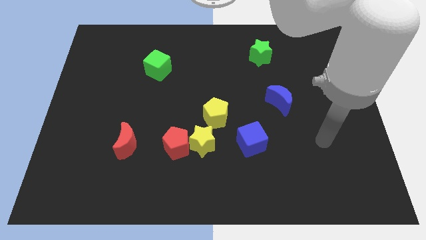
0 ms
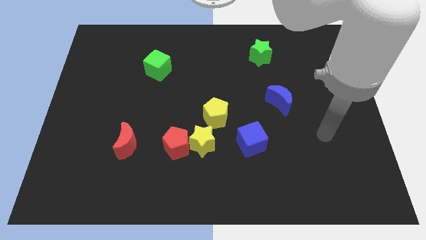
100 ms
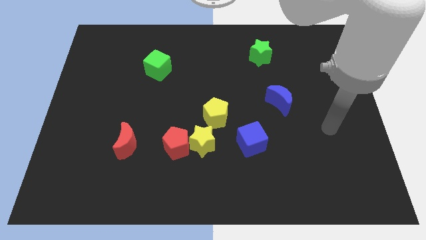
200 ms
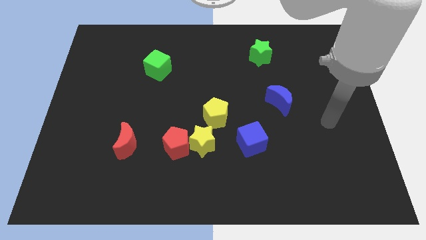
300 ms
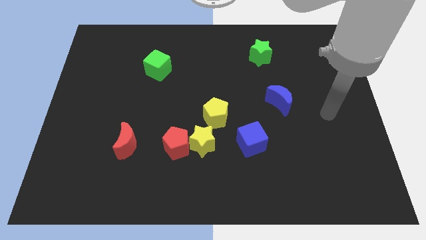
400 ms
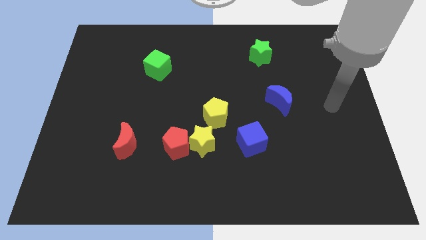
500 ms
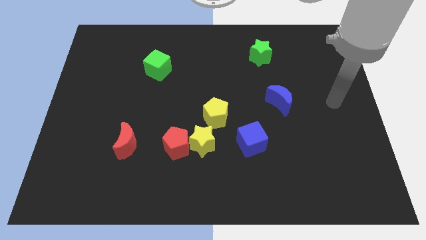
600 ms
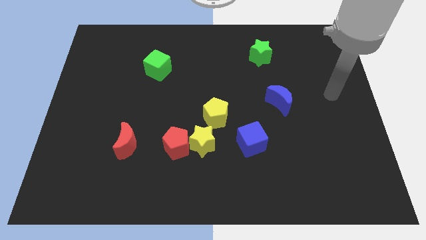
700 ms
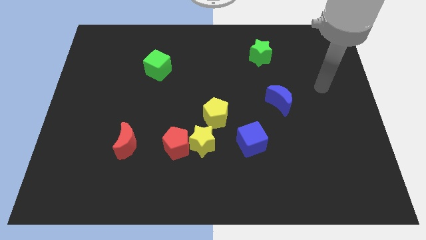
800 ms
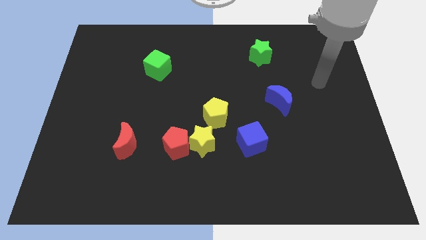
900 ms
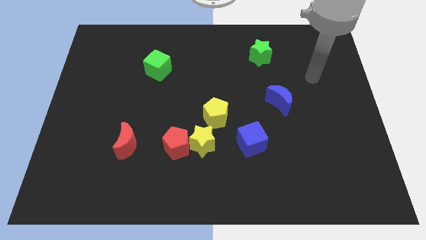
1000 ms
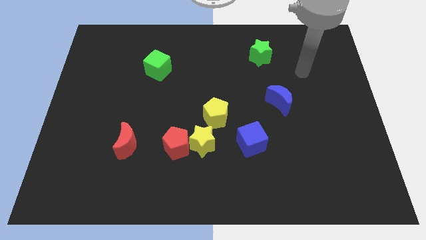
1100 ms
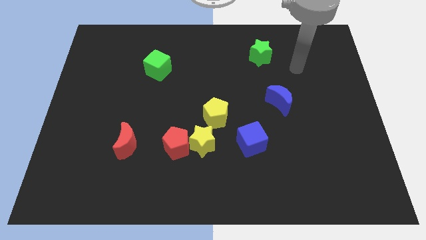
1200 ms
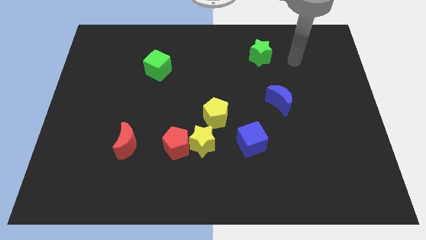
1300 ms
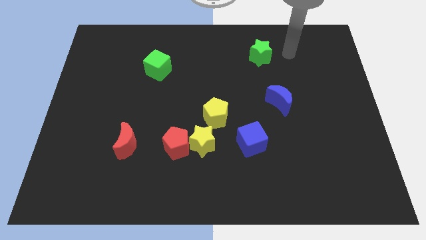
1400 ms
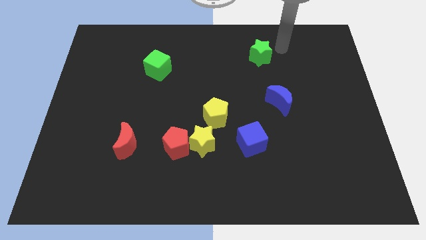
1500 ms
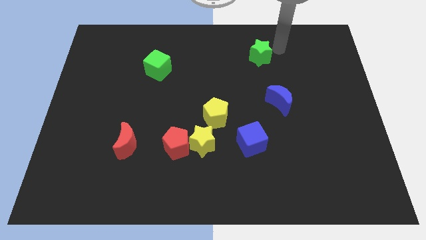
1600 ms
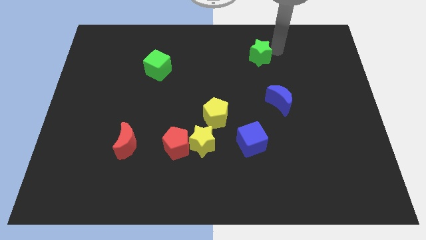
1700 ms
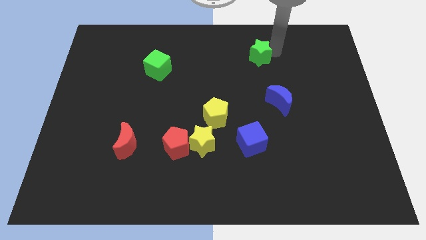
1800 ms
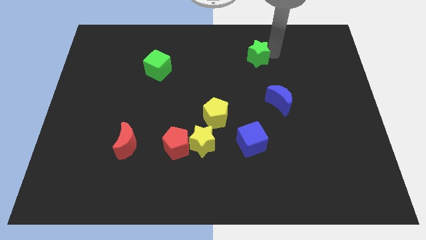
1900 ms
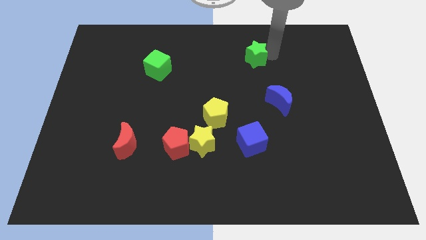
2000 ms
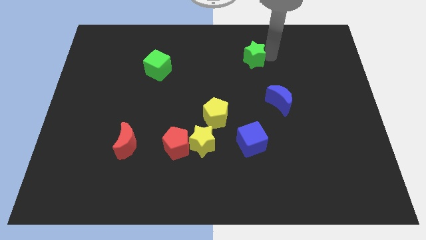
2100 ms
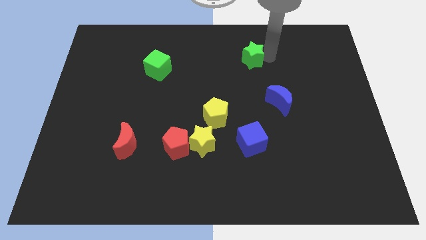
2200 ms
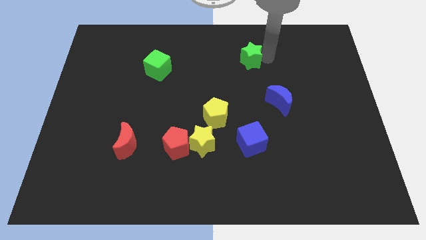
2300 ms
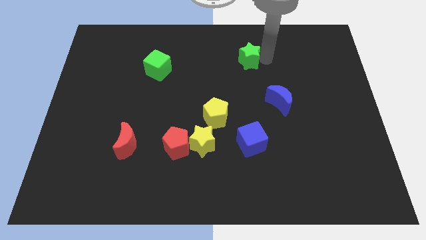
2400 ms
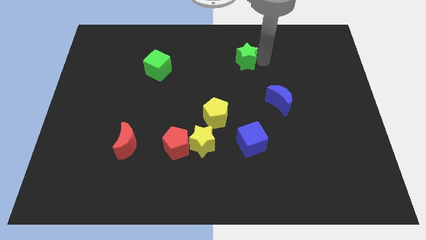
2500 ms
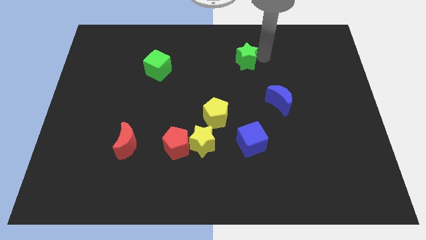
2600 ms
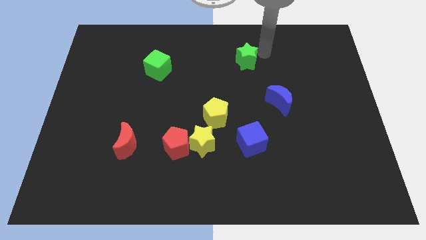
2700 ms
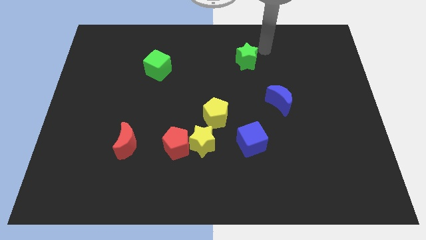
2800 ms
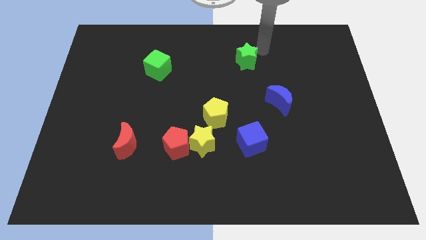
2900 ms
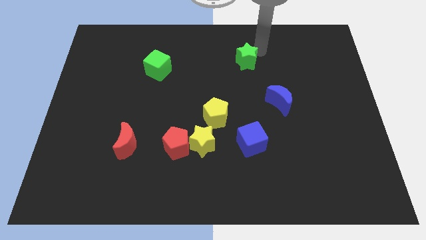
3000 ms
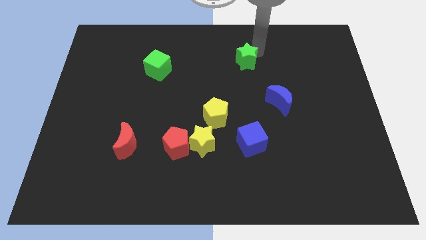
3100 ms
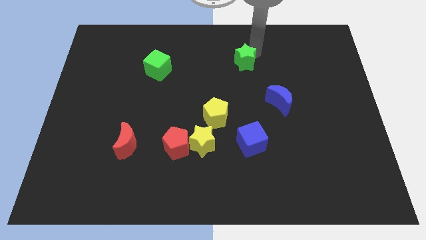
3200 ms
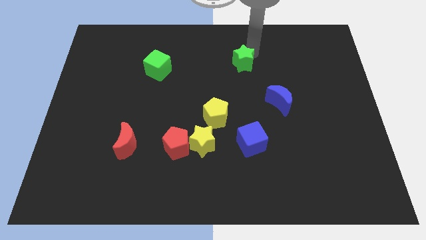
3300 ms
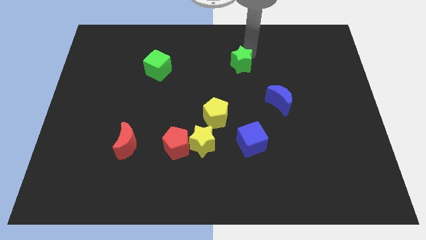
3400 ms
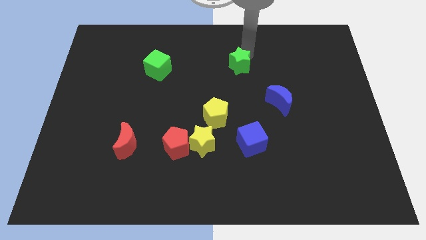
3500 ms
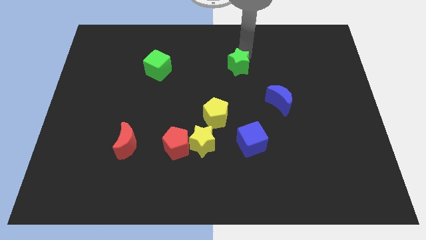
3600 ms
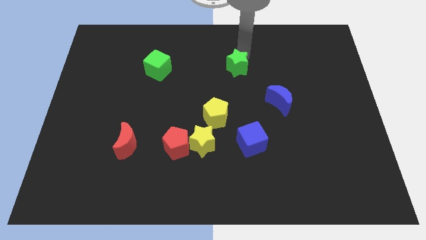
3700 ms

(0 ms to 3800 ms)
push the green star somewhat down and left

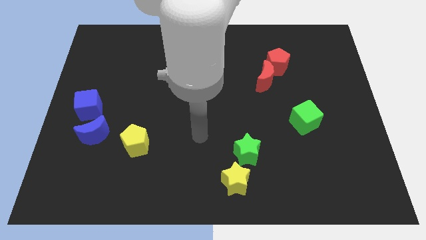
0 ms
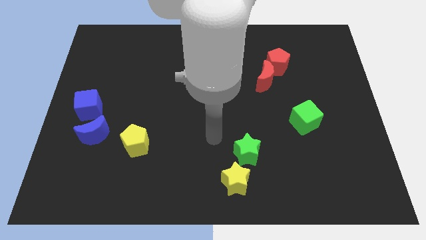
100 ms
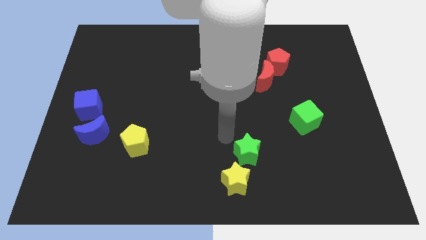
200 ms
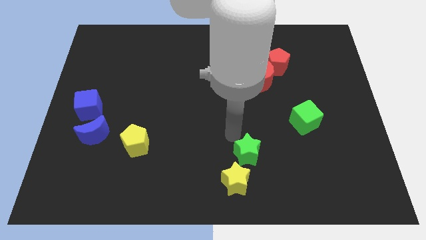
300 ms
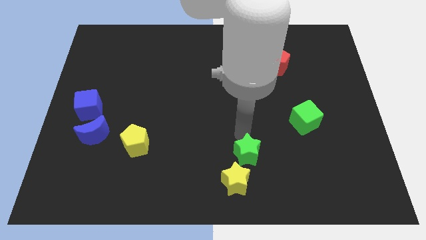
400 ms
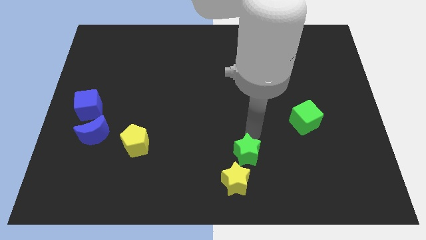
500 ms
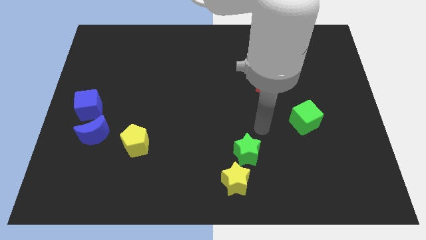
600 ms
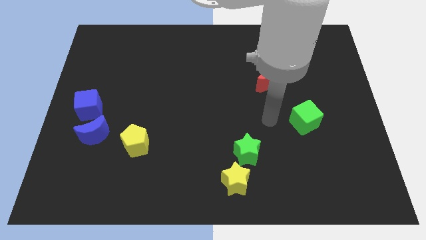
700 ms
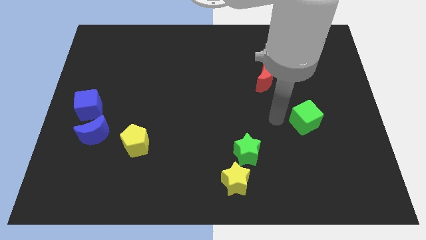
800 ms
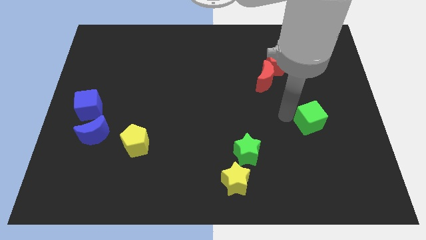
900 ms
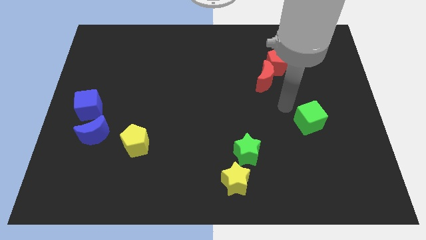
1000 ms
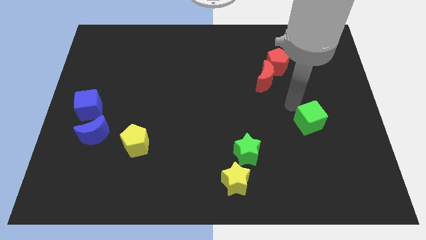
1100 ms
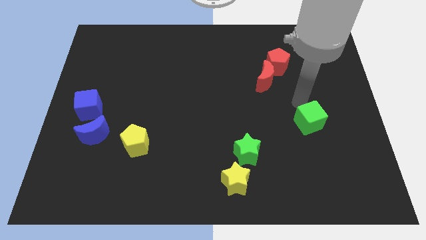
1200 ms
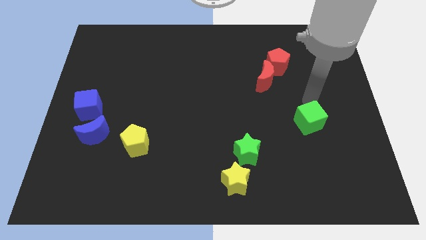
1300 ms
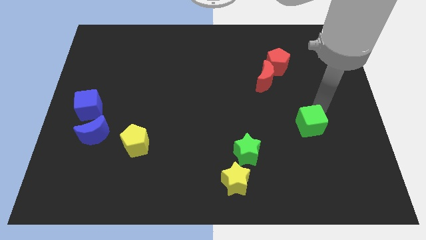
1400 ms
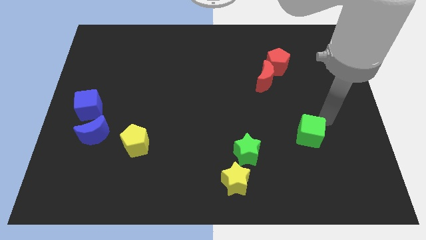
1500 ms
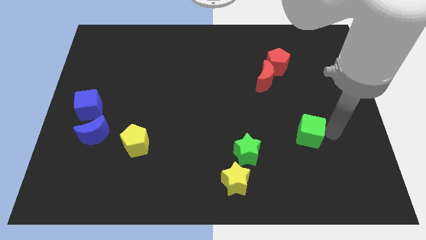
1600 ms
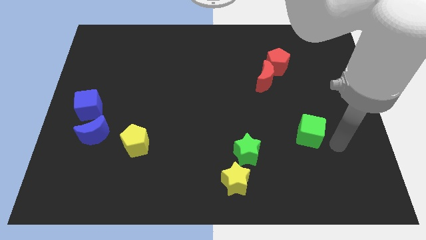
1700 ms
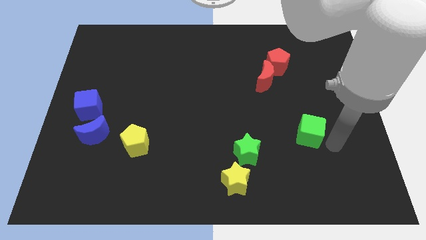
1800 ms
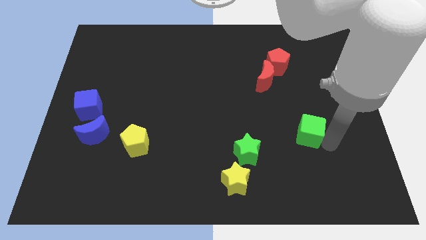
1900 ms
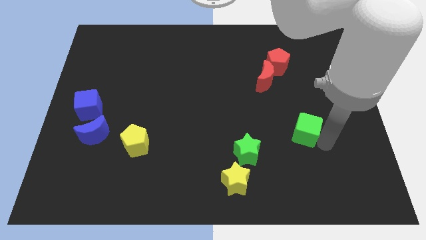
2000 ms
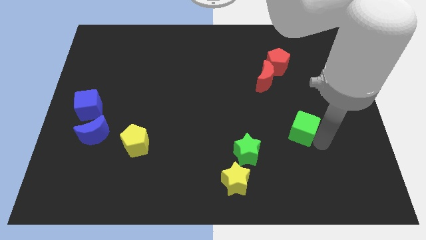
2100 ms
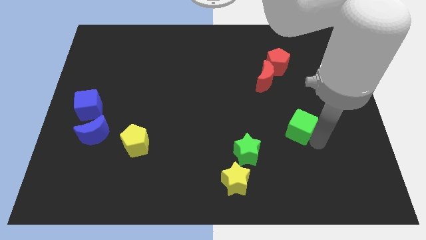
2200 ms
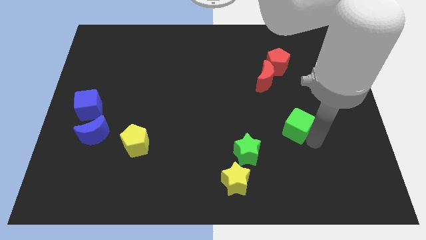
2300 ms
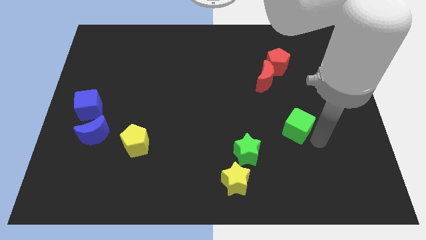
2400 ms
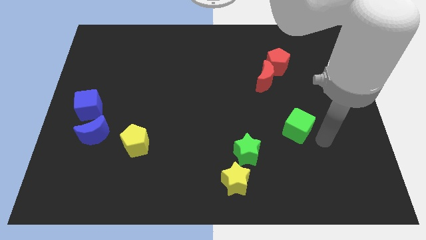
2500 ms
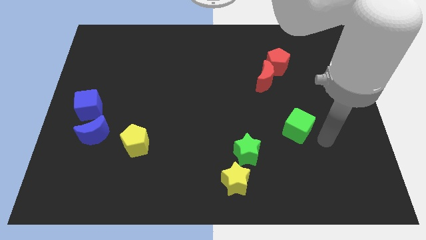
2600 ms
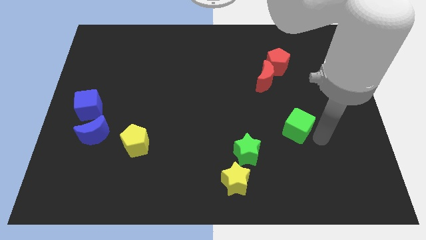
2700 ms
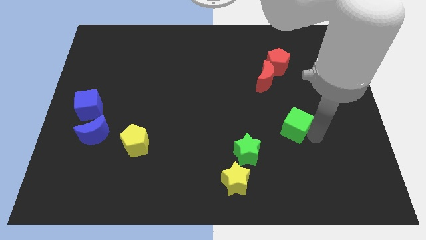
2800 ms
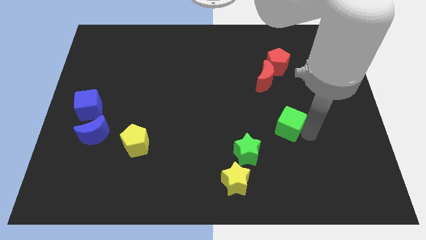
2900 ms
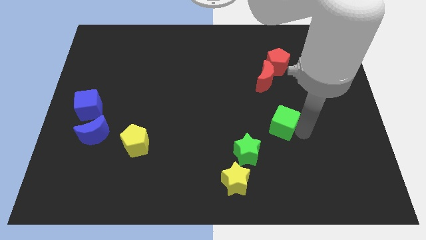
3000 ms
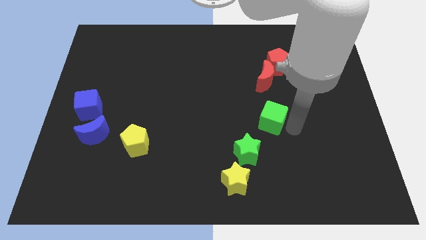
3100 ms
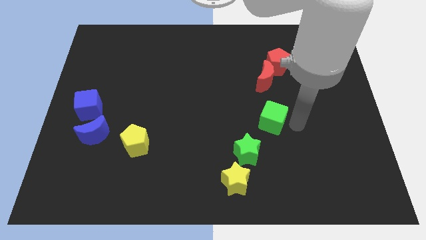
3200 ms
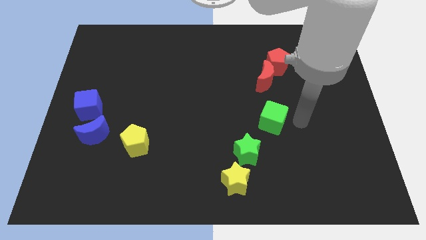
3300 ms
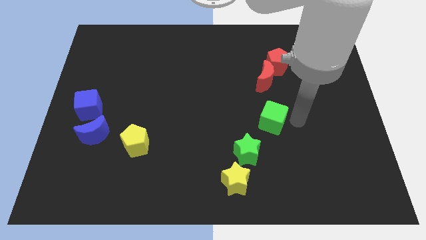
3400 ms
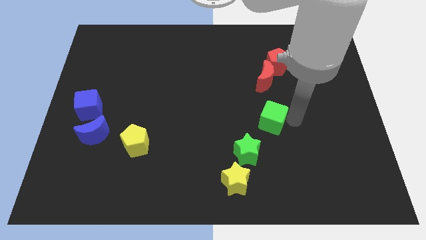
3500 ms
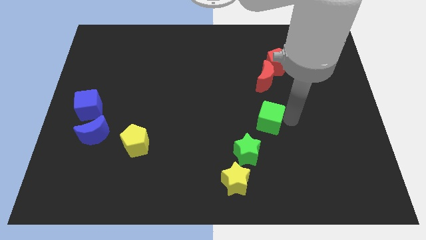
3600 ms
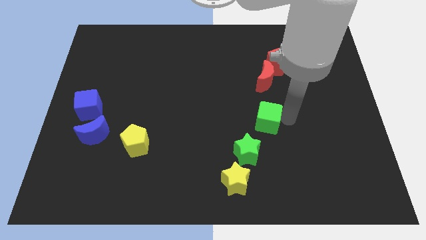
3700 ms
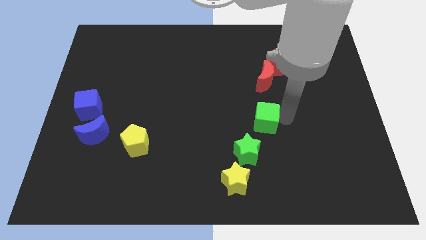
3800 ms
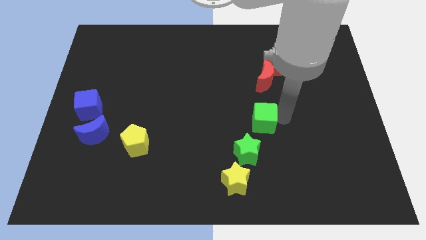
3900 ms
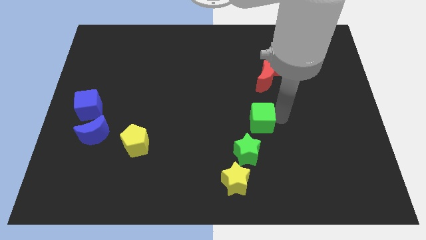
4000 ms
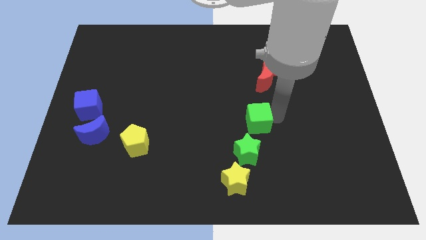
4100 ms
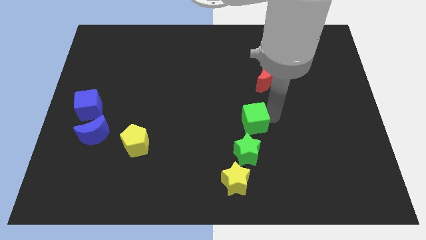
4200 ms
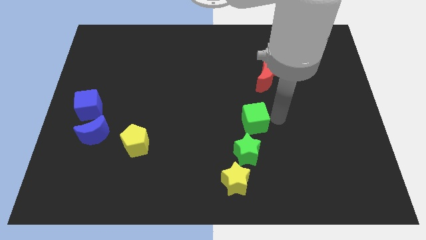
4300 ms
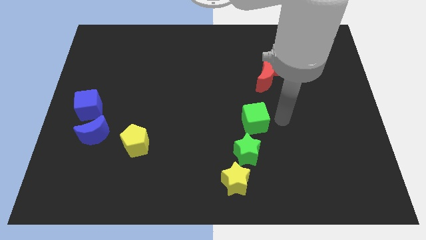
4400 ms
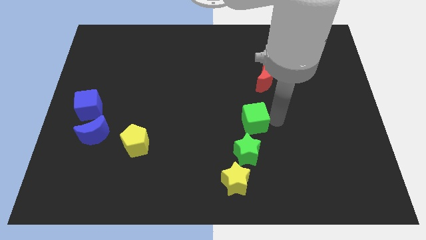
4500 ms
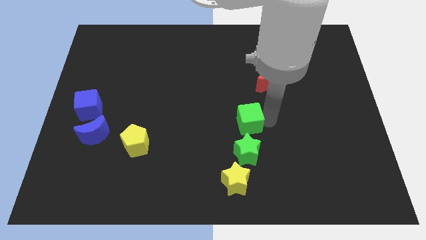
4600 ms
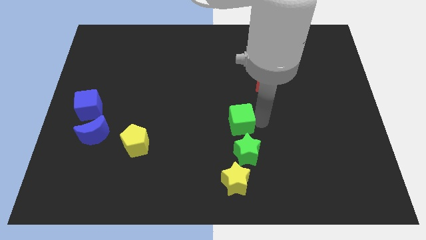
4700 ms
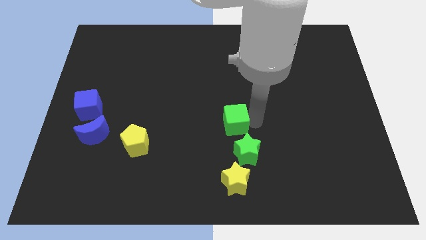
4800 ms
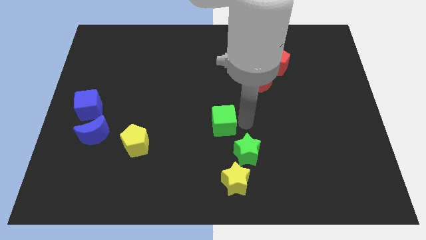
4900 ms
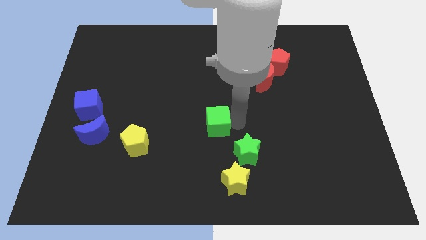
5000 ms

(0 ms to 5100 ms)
slide the green cube left
